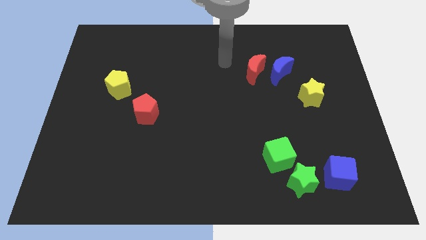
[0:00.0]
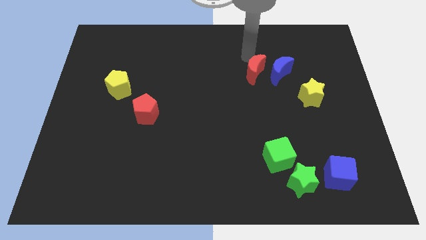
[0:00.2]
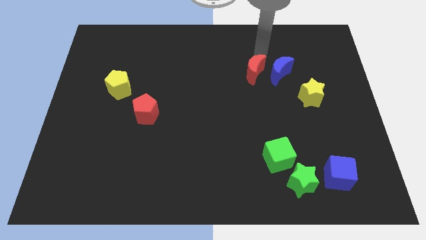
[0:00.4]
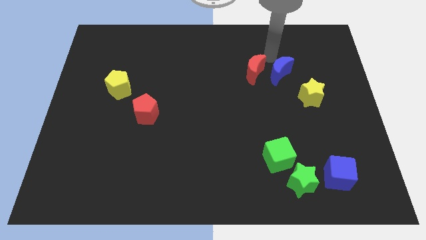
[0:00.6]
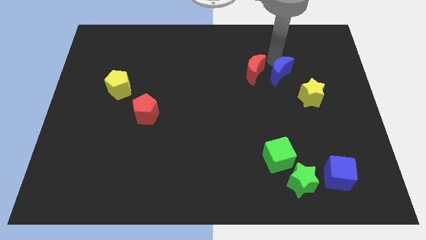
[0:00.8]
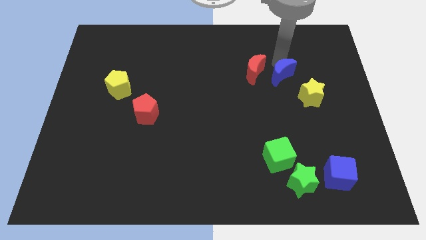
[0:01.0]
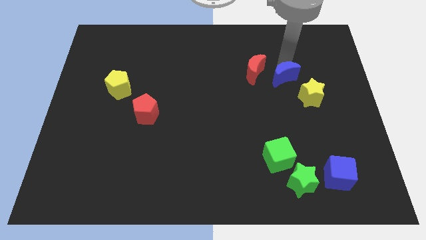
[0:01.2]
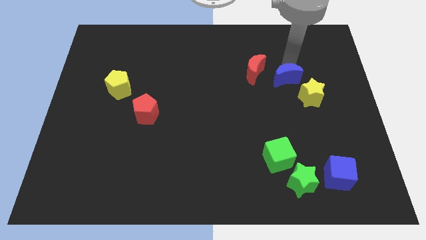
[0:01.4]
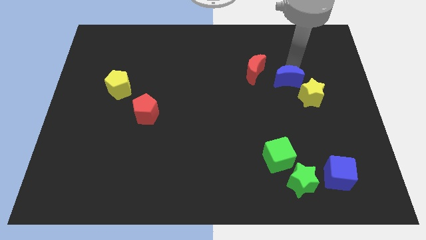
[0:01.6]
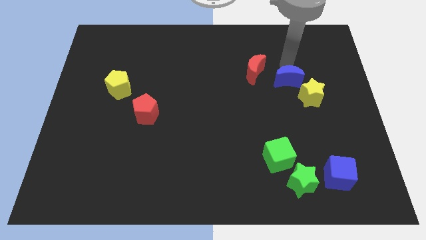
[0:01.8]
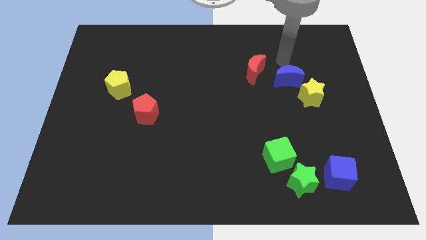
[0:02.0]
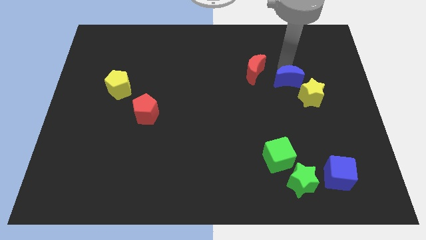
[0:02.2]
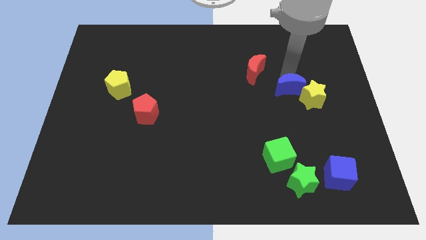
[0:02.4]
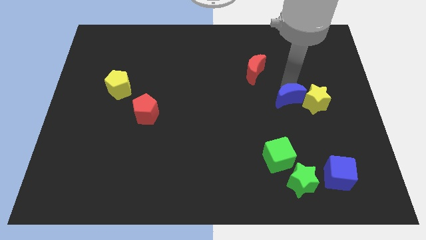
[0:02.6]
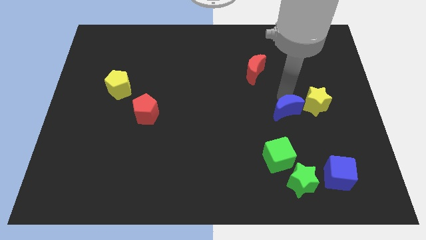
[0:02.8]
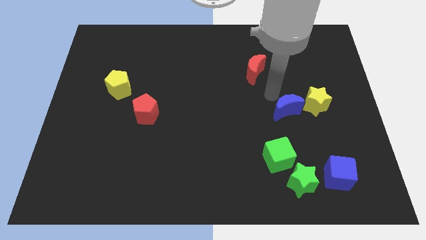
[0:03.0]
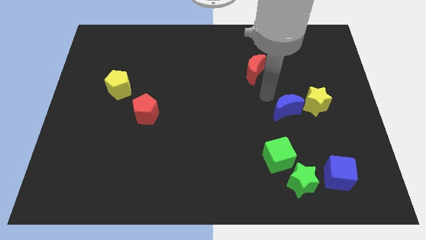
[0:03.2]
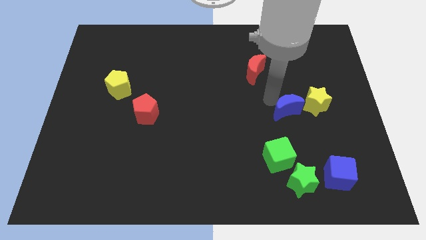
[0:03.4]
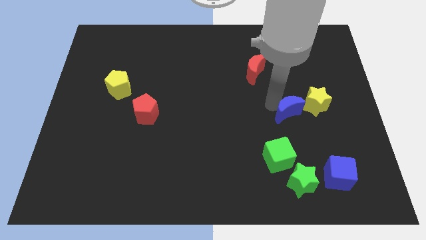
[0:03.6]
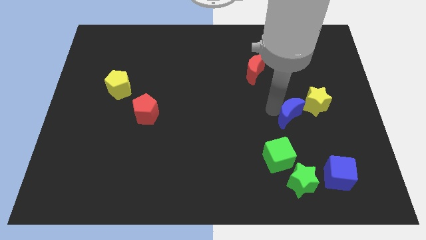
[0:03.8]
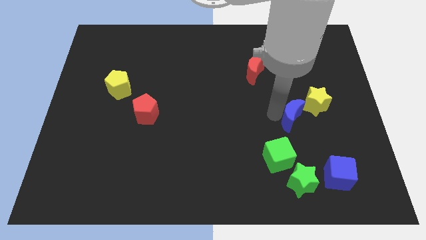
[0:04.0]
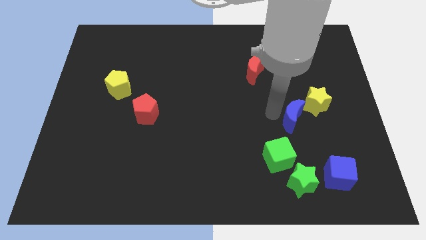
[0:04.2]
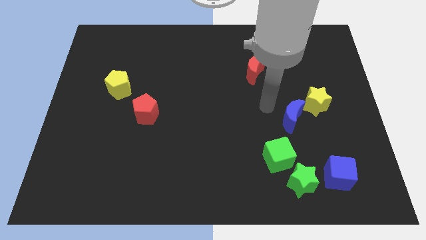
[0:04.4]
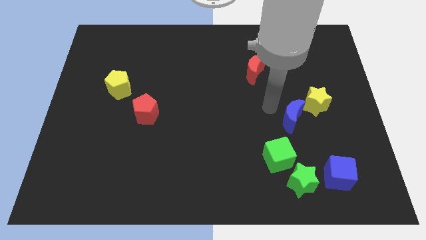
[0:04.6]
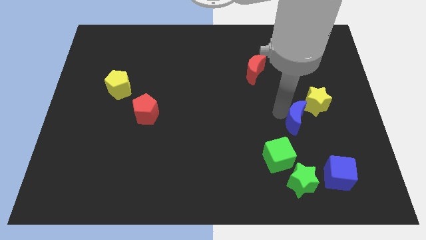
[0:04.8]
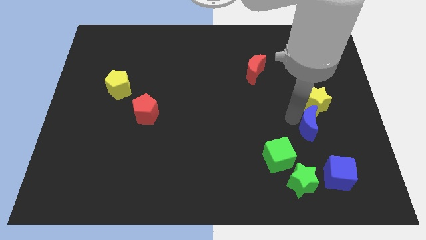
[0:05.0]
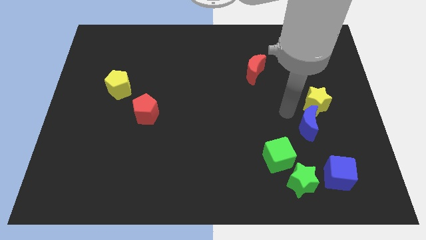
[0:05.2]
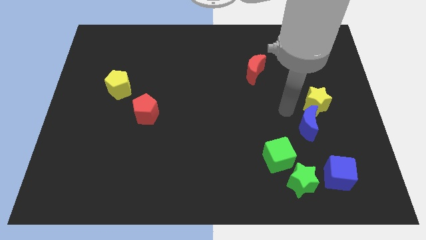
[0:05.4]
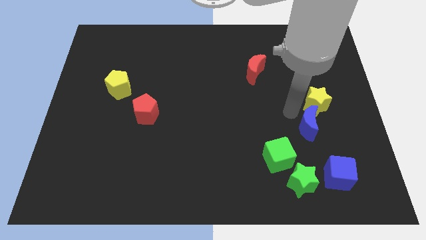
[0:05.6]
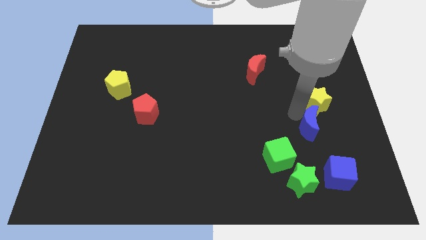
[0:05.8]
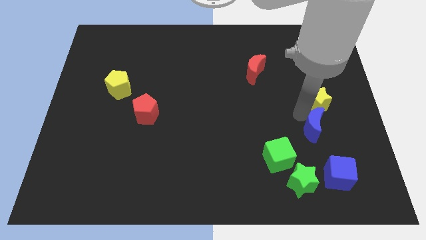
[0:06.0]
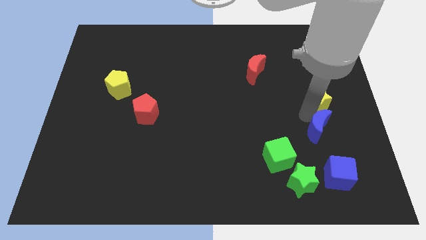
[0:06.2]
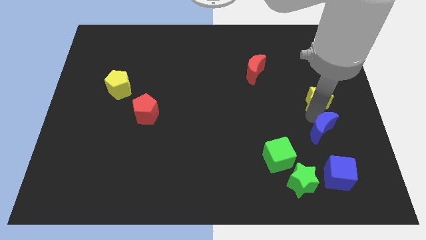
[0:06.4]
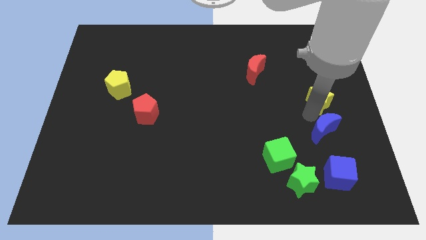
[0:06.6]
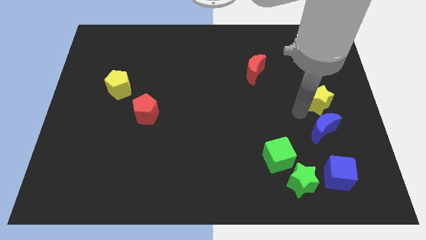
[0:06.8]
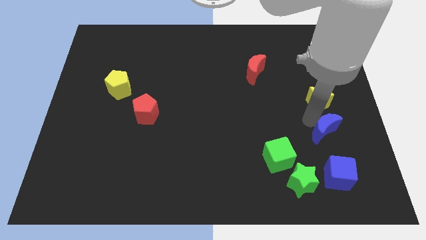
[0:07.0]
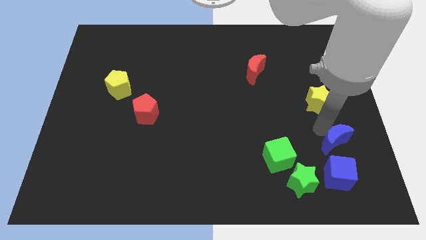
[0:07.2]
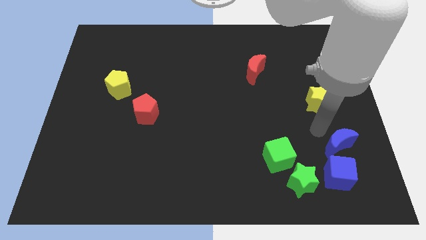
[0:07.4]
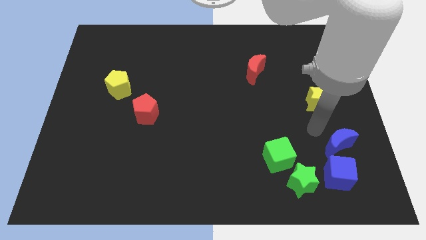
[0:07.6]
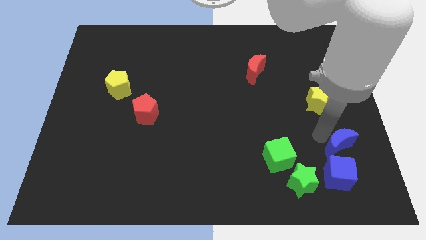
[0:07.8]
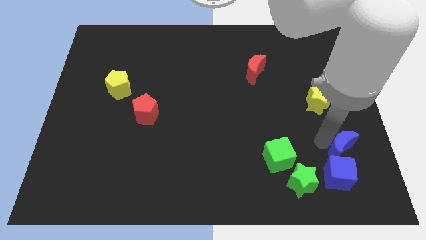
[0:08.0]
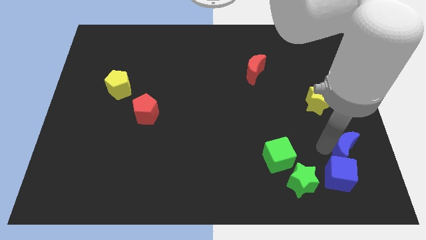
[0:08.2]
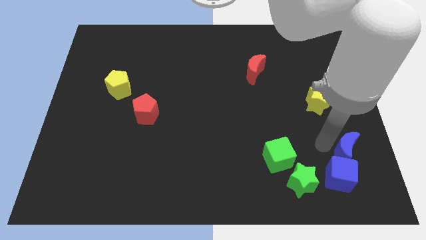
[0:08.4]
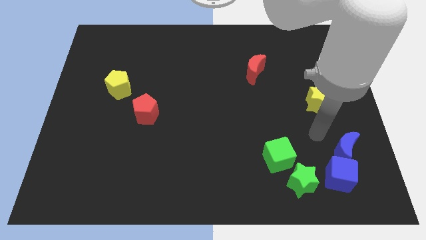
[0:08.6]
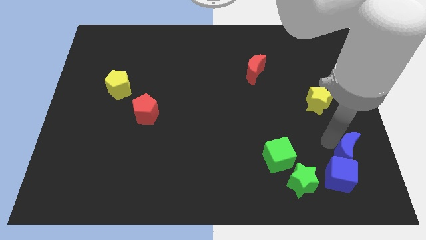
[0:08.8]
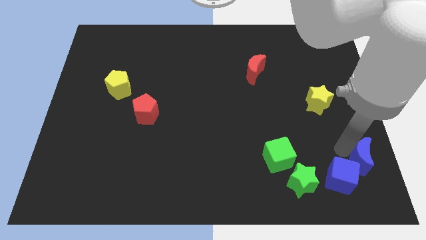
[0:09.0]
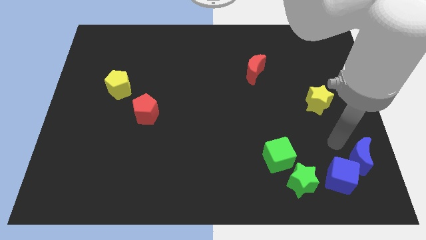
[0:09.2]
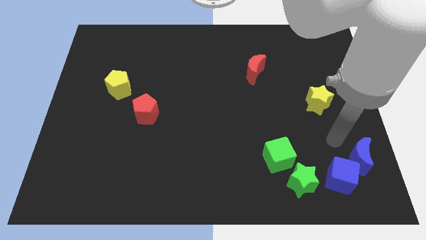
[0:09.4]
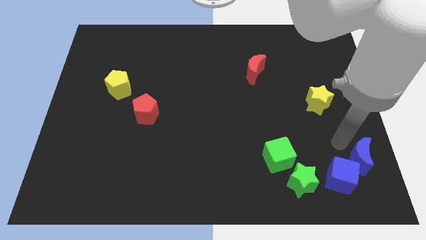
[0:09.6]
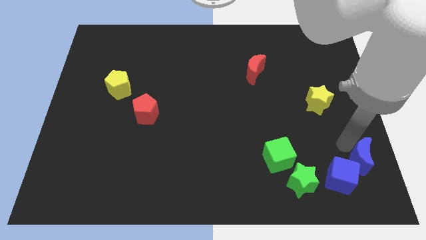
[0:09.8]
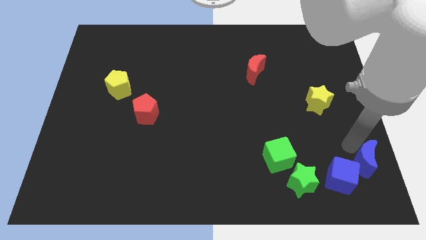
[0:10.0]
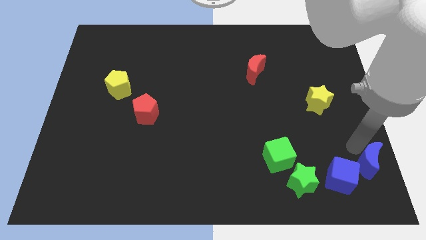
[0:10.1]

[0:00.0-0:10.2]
push the blue moon to the bottom right of the board

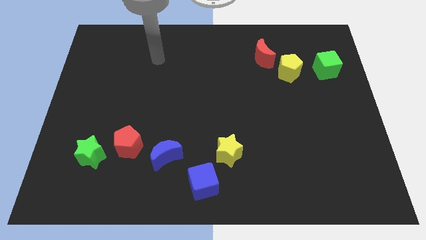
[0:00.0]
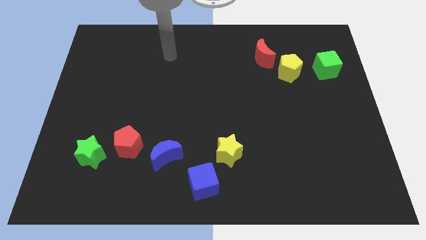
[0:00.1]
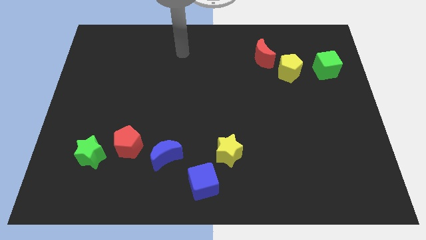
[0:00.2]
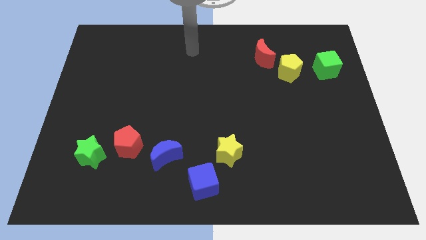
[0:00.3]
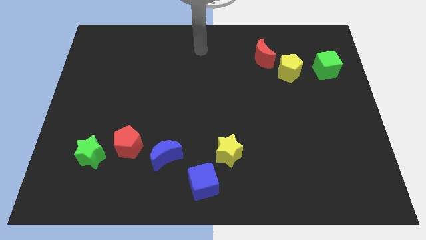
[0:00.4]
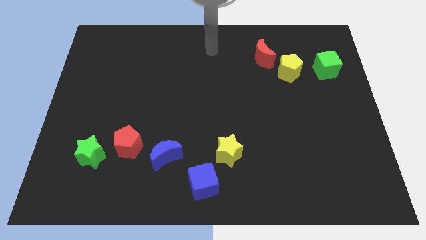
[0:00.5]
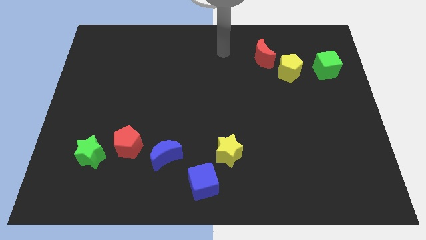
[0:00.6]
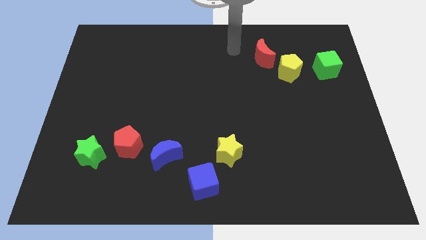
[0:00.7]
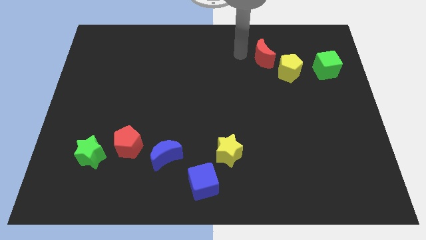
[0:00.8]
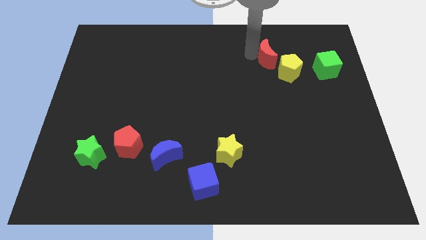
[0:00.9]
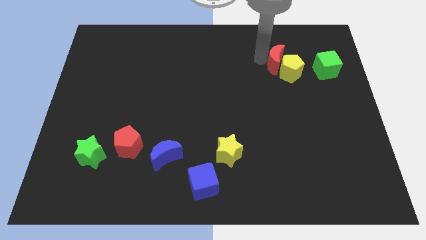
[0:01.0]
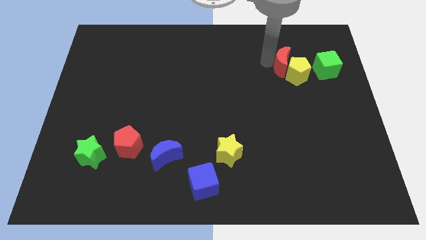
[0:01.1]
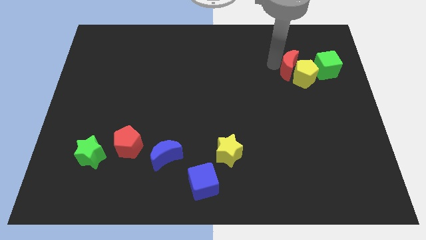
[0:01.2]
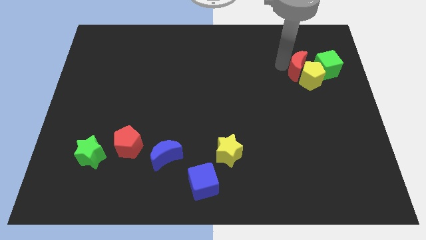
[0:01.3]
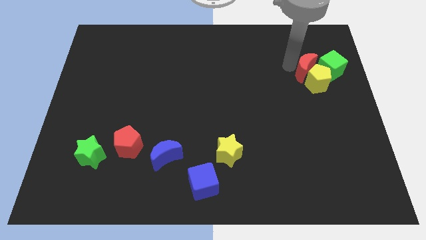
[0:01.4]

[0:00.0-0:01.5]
slide the yellow pentagon to the right side

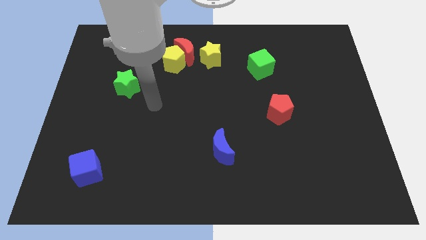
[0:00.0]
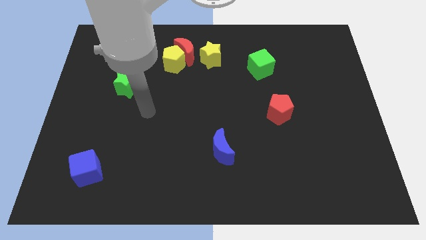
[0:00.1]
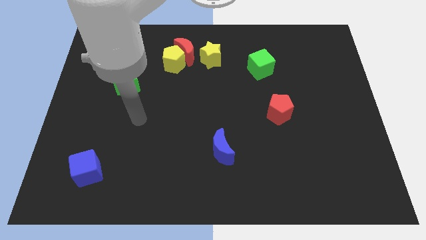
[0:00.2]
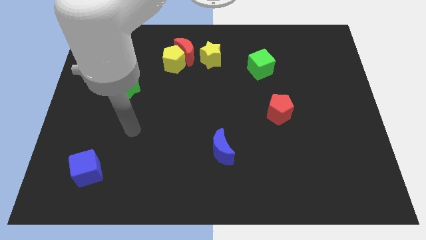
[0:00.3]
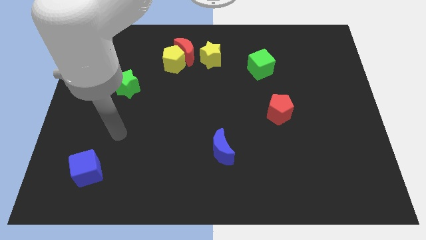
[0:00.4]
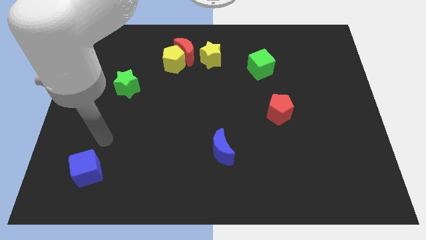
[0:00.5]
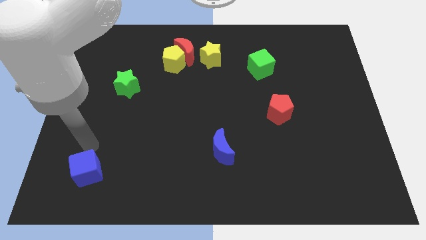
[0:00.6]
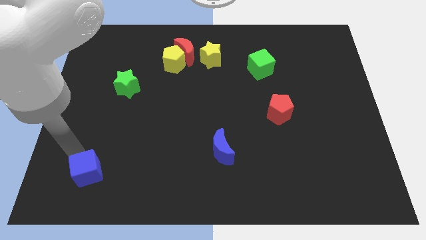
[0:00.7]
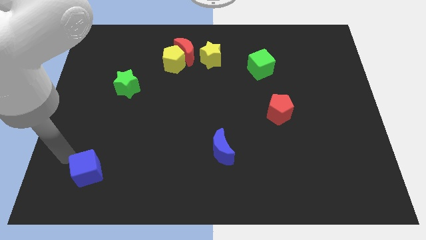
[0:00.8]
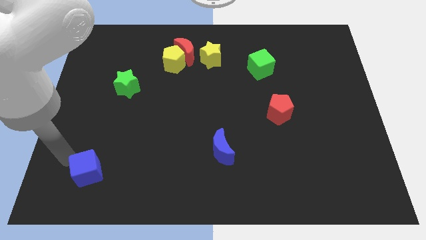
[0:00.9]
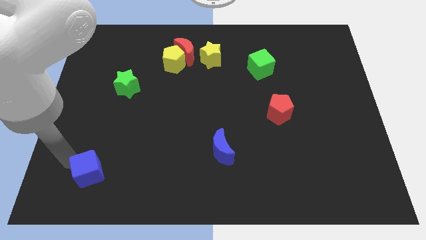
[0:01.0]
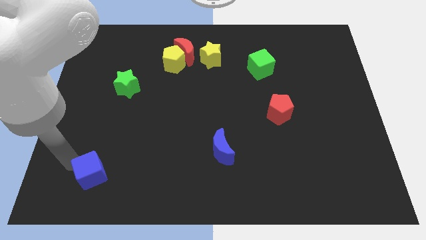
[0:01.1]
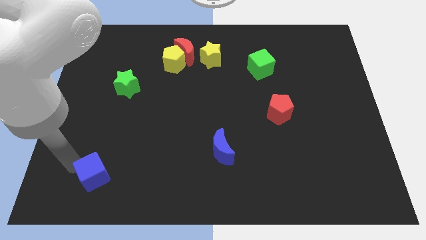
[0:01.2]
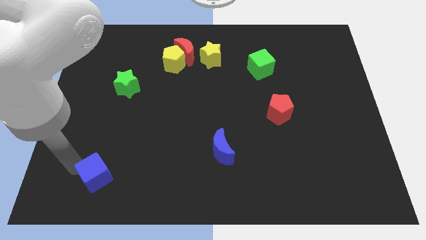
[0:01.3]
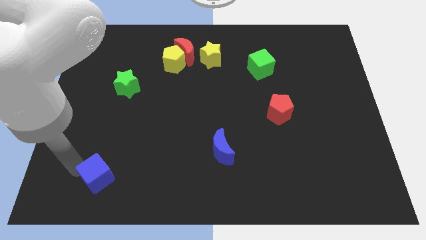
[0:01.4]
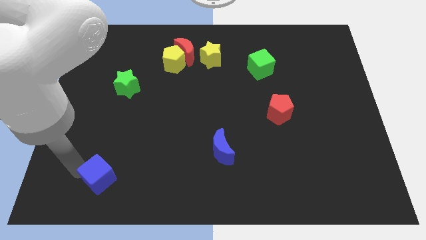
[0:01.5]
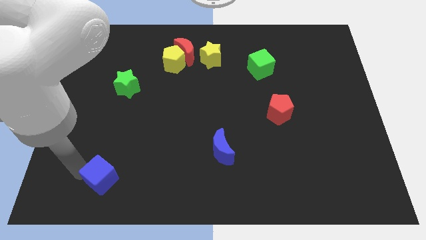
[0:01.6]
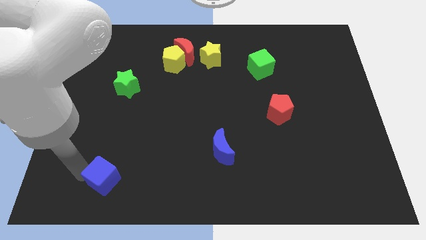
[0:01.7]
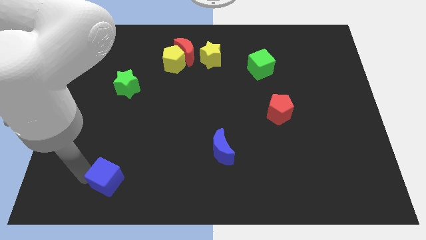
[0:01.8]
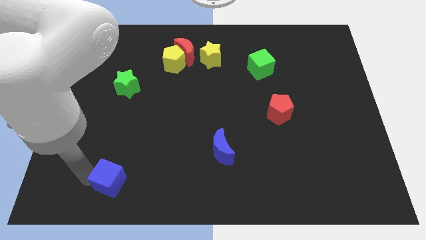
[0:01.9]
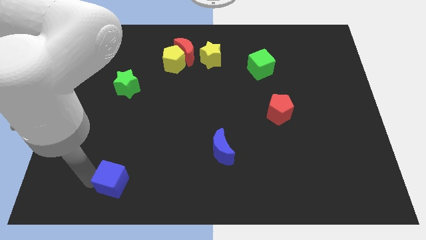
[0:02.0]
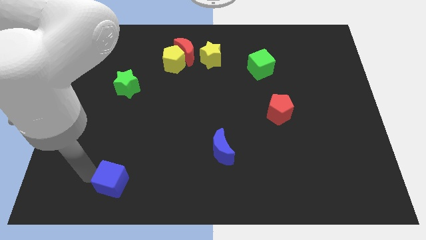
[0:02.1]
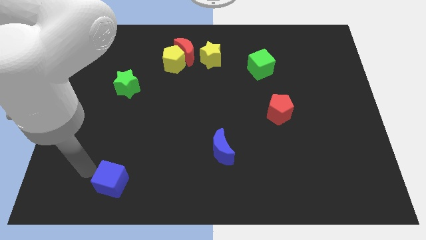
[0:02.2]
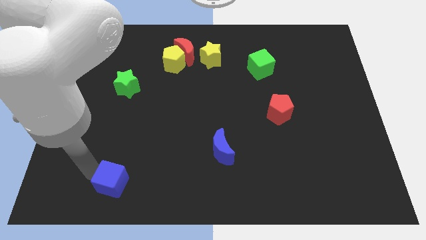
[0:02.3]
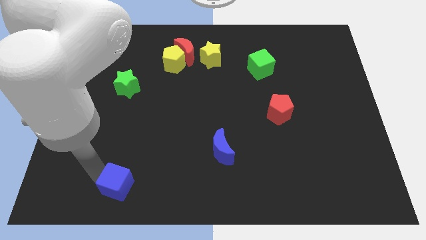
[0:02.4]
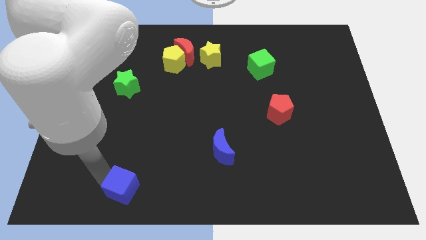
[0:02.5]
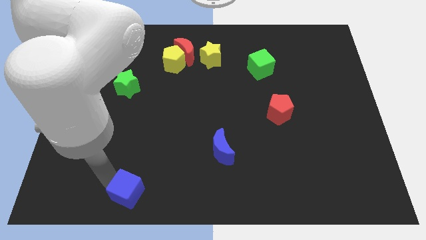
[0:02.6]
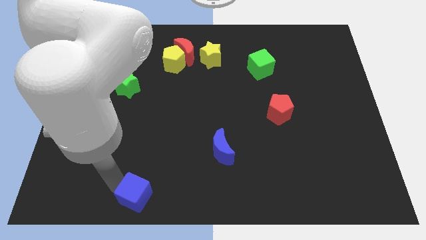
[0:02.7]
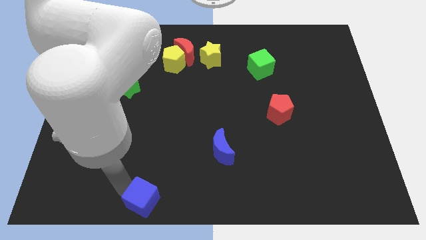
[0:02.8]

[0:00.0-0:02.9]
put the blue cube to the bottom
